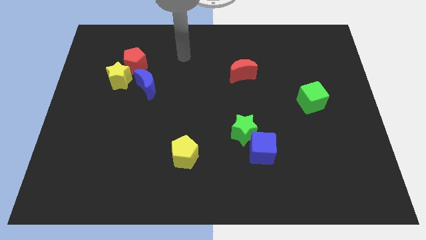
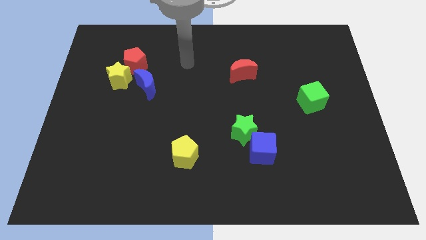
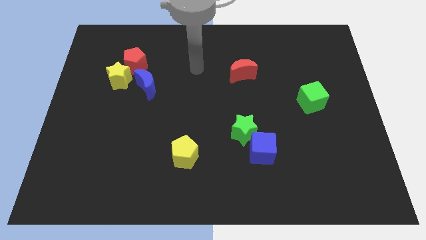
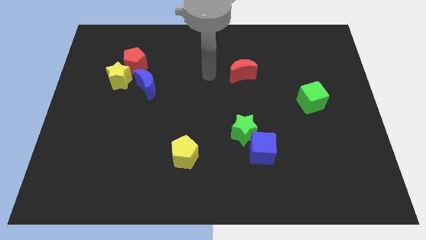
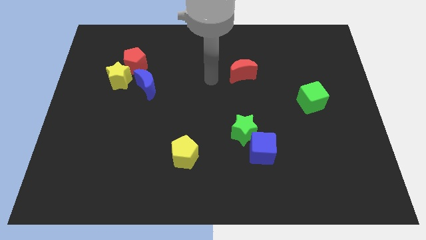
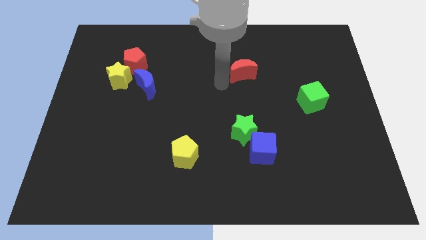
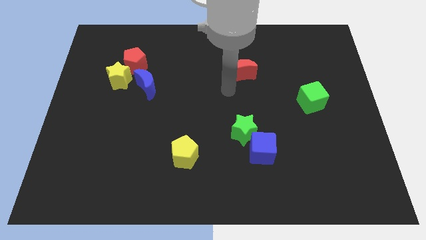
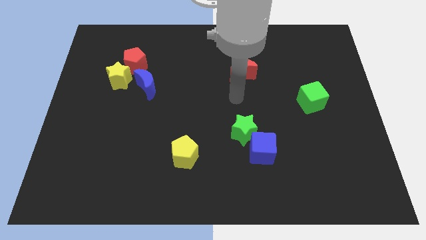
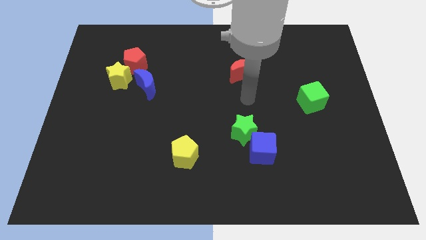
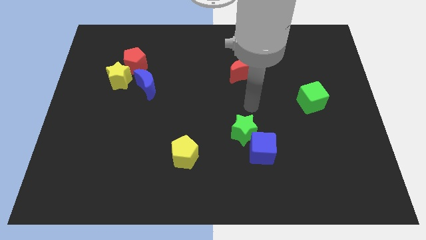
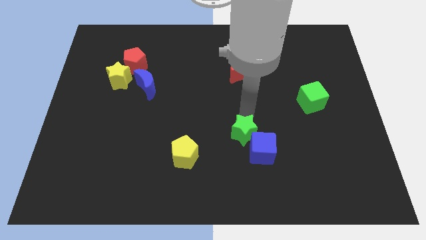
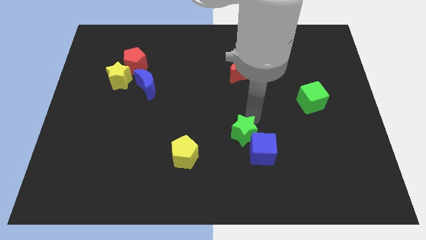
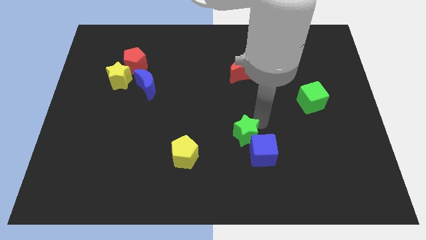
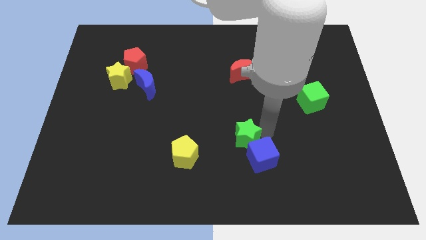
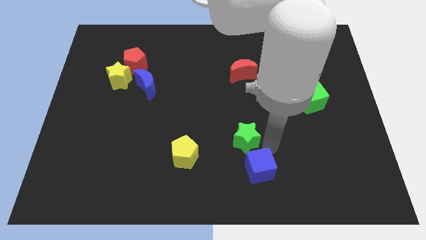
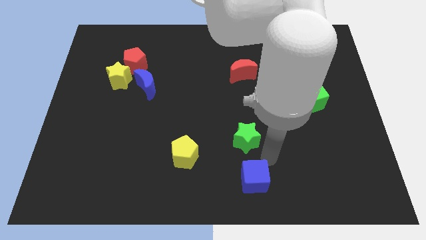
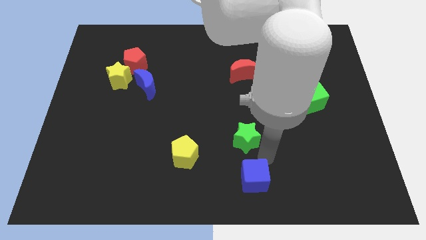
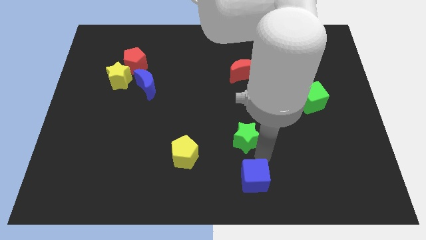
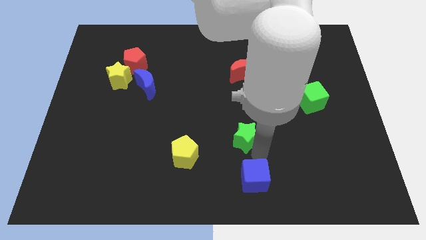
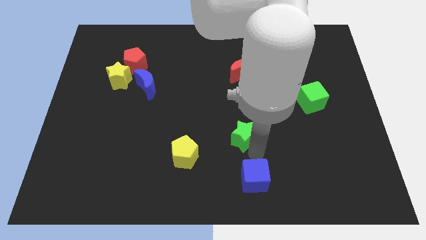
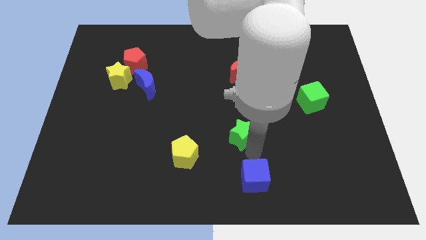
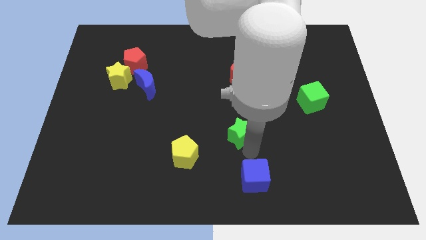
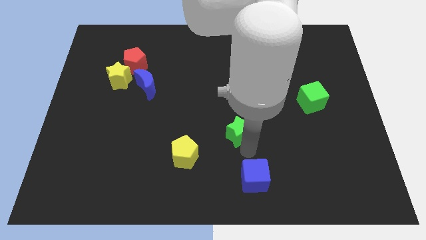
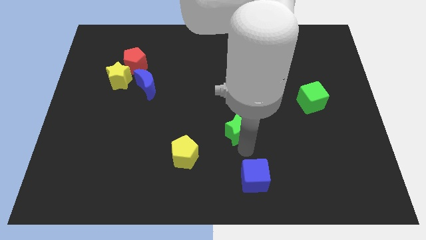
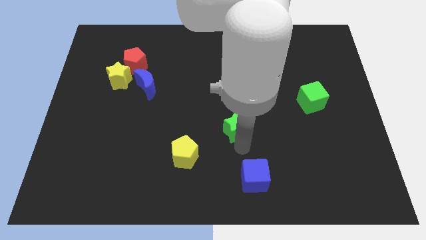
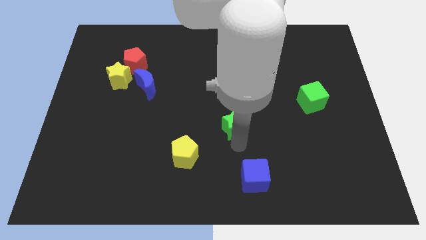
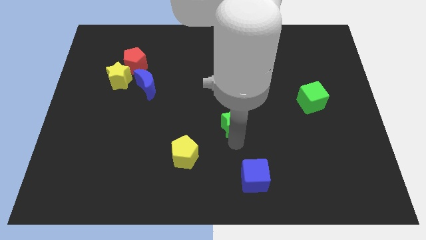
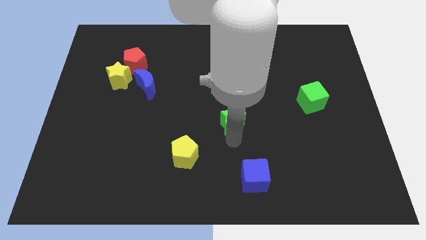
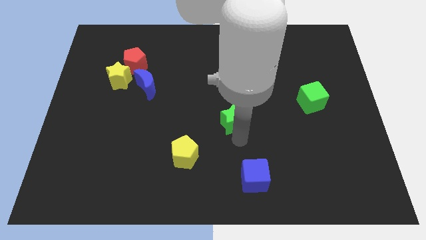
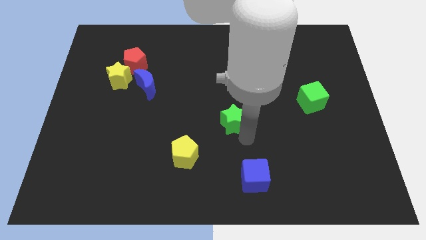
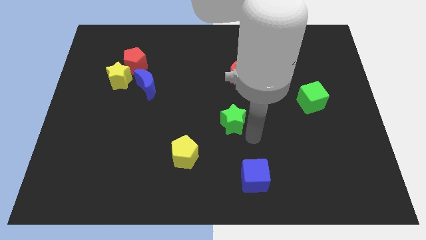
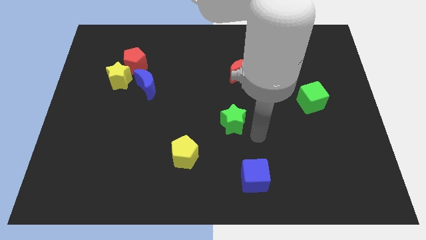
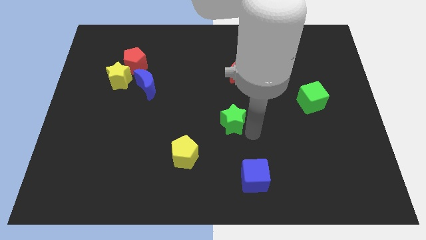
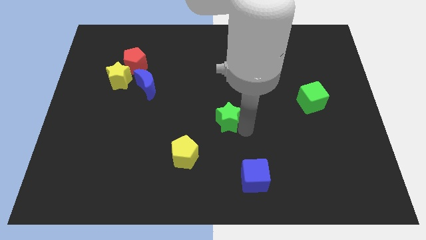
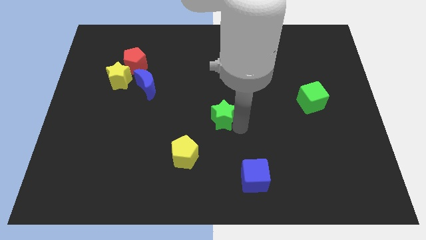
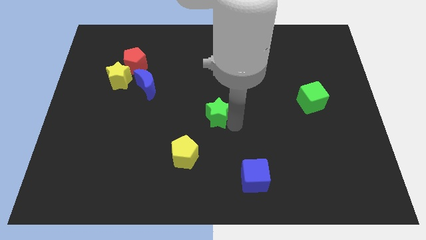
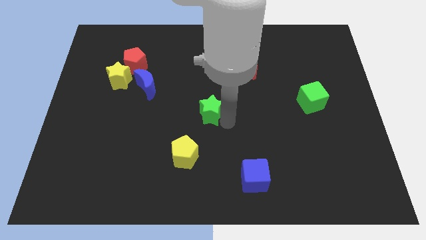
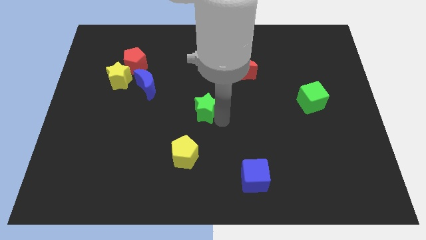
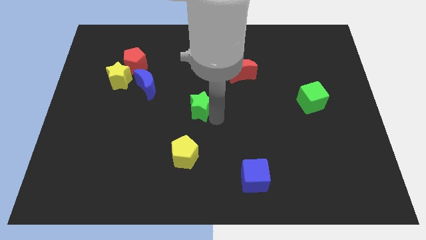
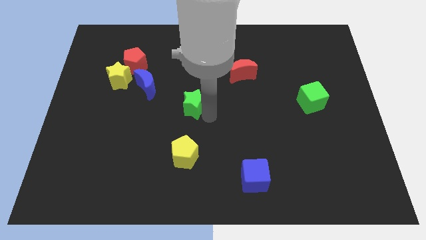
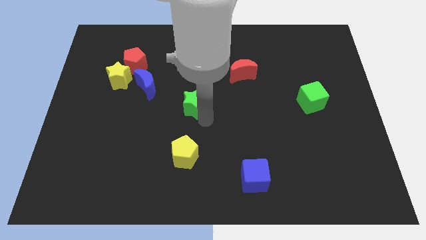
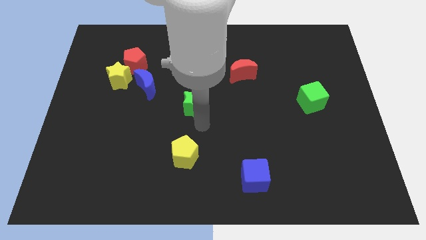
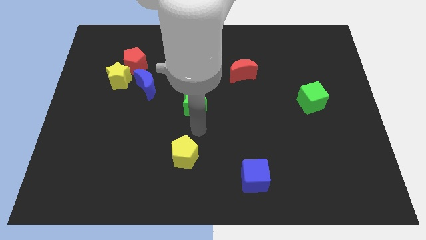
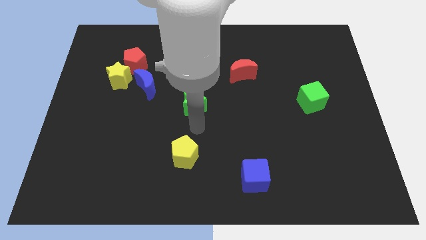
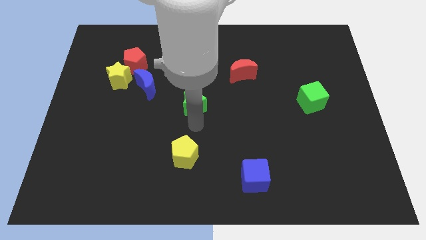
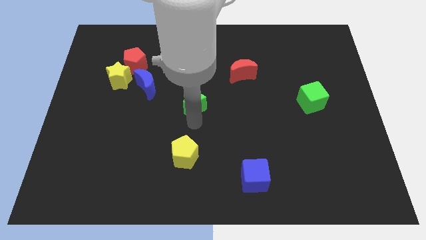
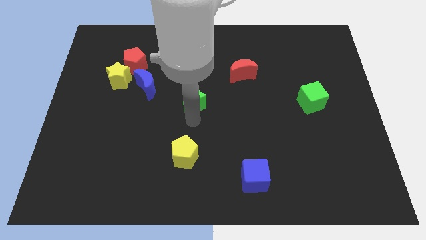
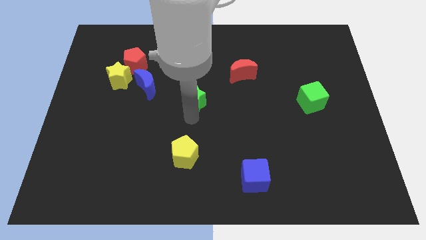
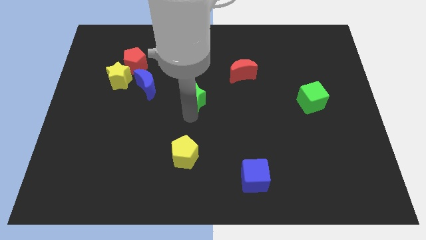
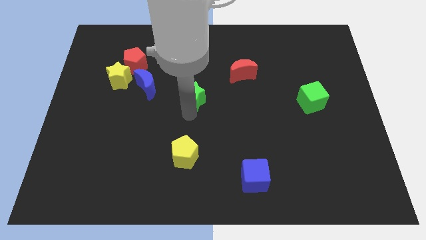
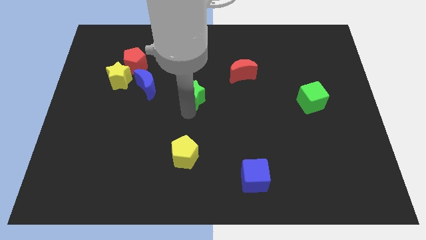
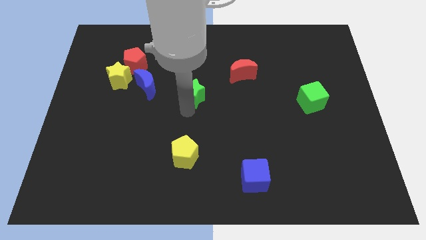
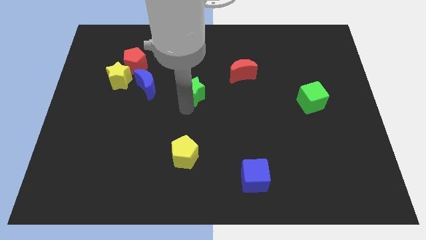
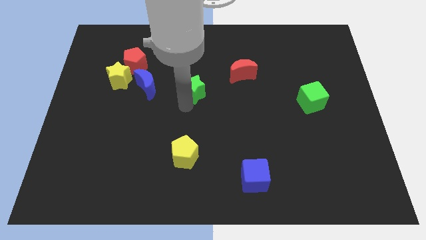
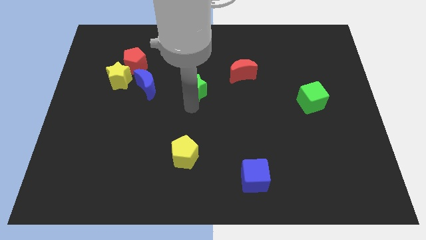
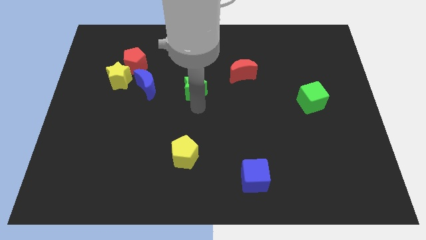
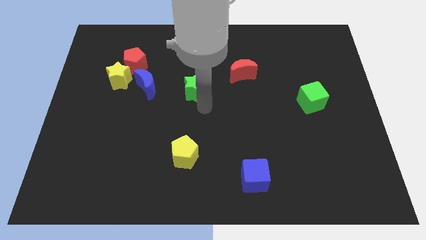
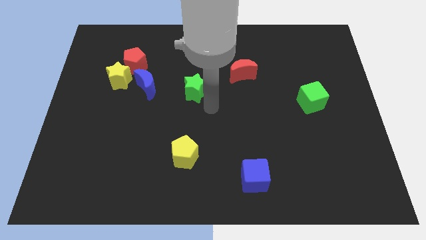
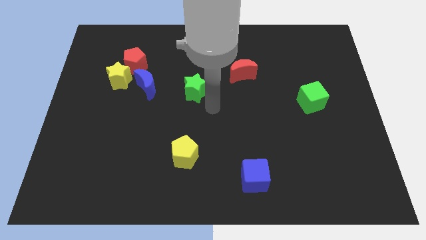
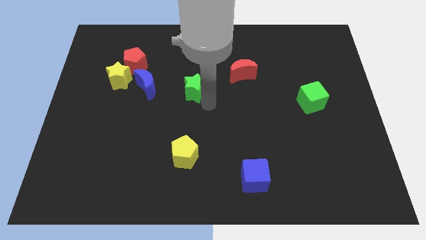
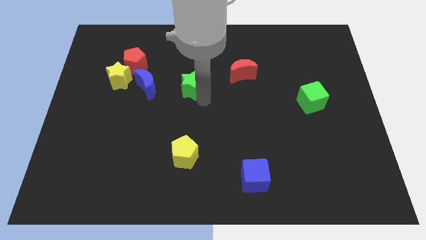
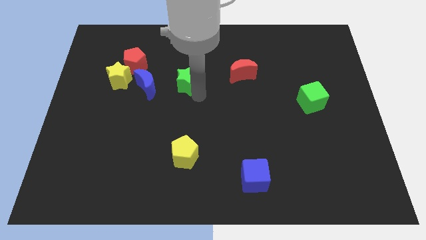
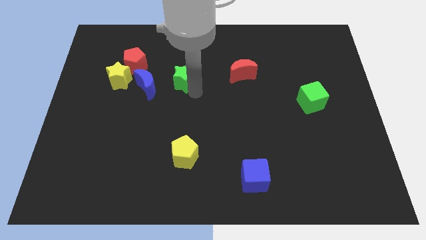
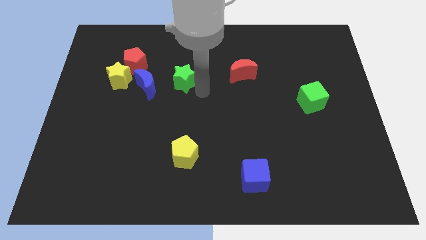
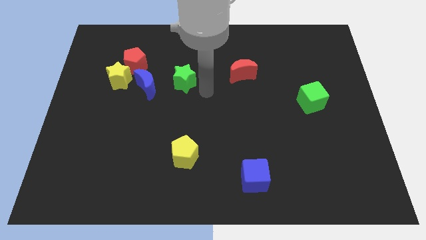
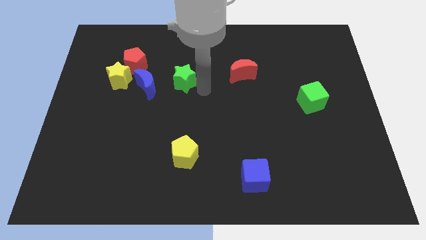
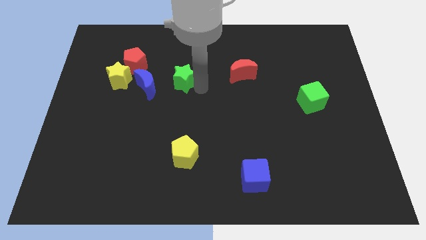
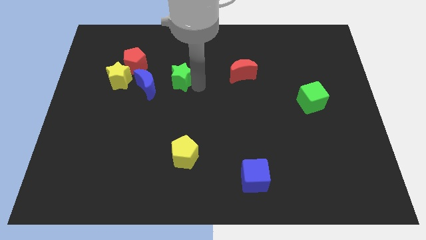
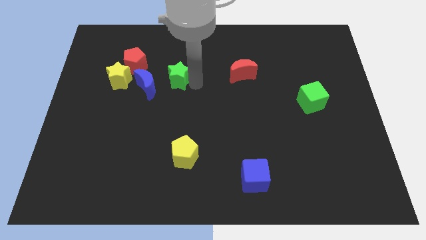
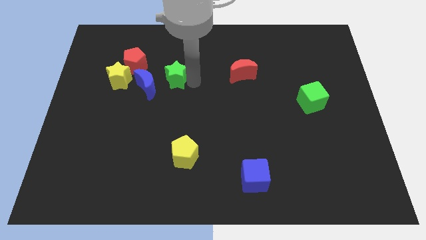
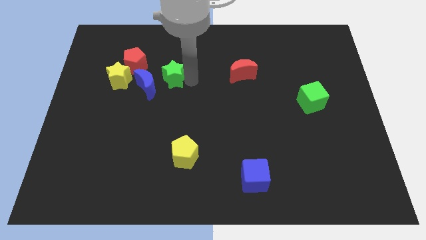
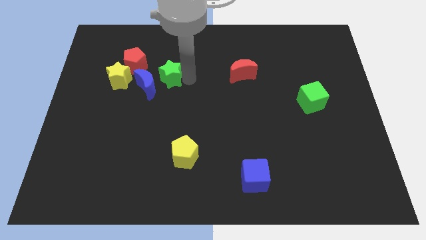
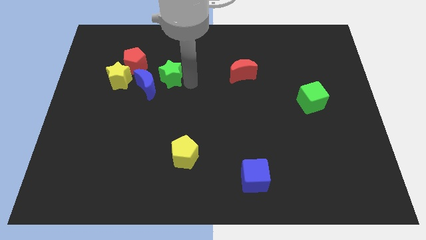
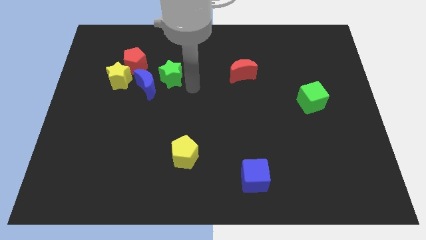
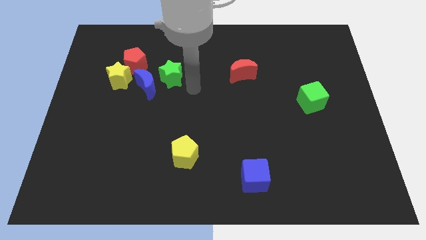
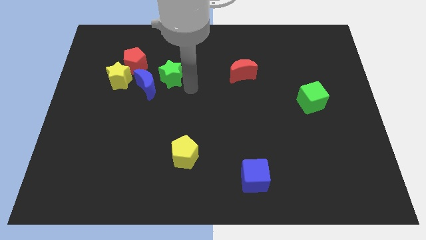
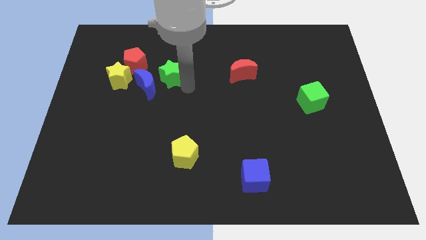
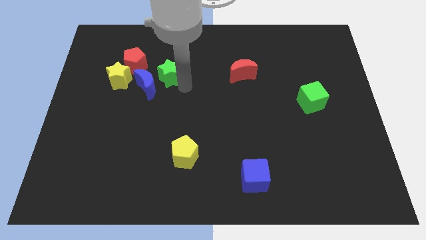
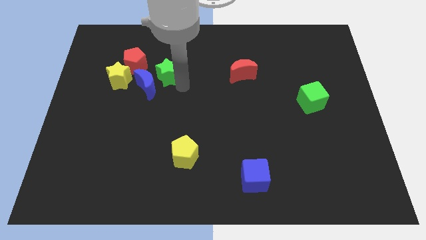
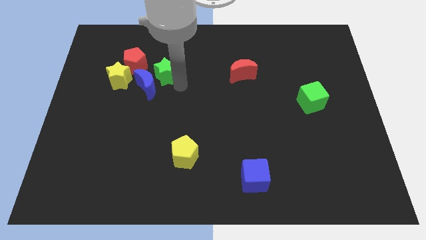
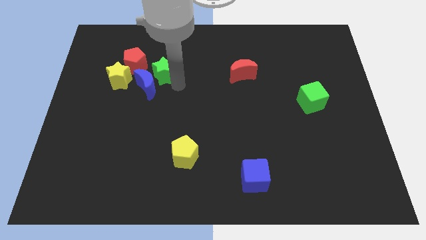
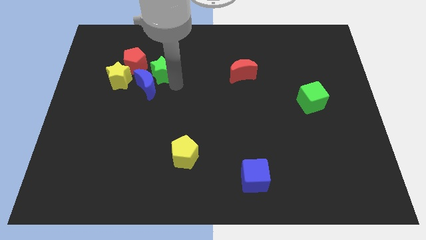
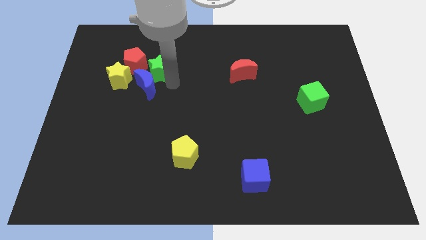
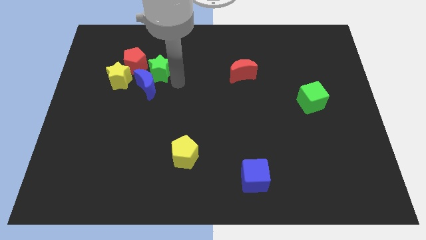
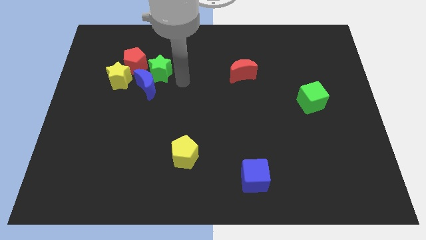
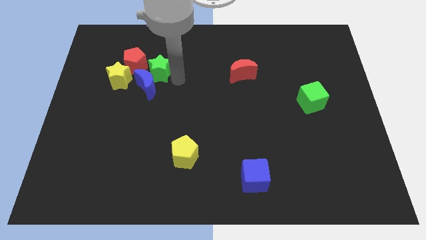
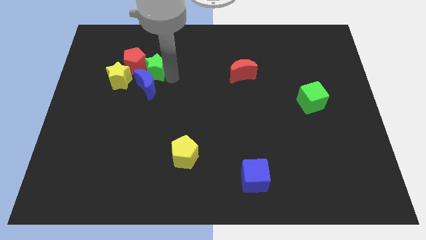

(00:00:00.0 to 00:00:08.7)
slide the green star towards the red pentagon
